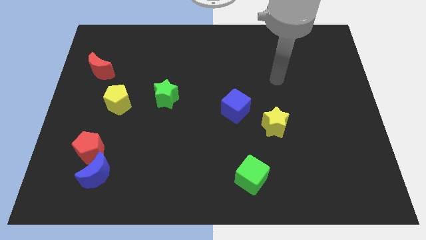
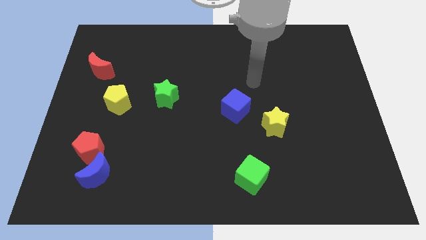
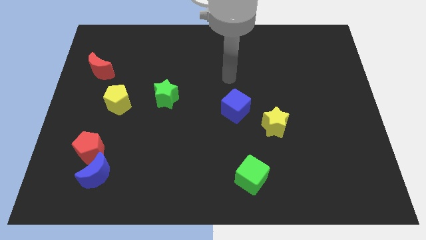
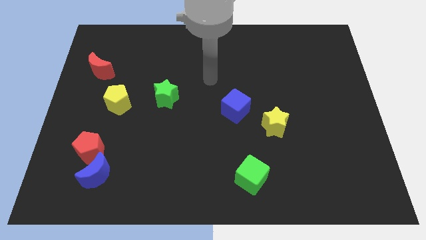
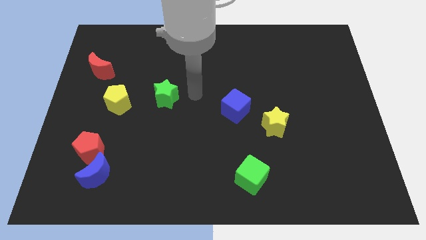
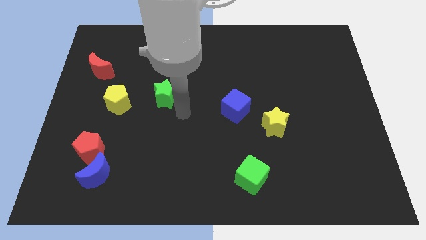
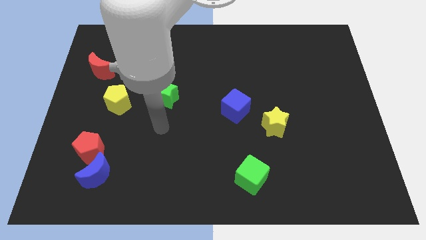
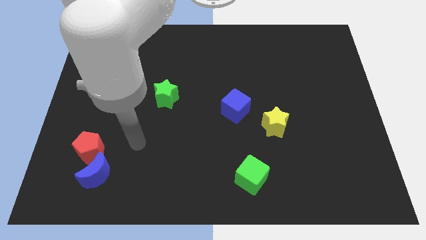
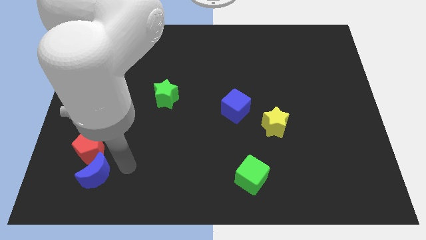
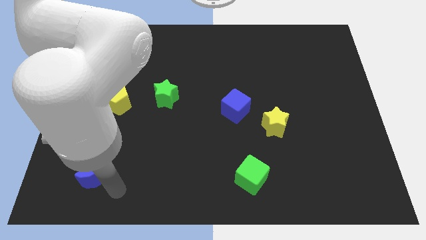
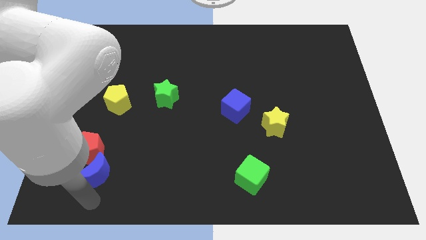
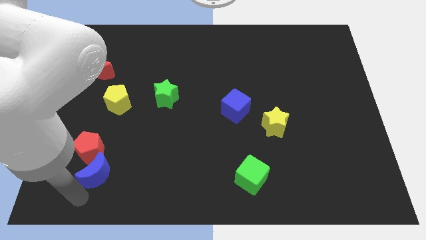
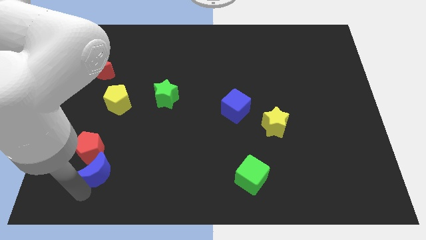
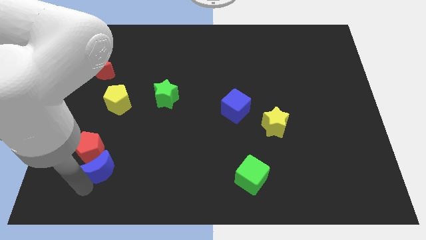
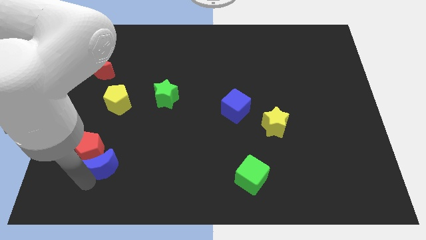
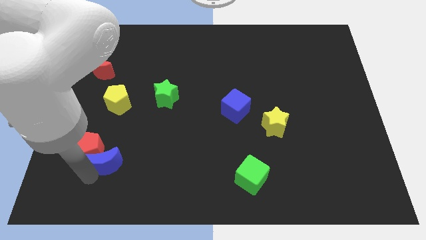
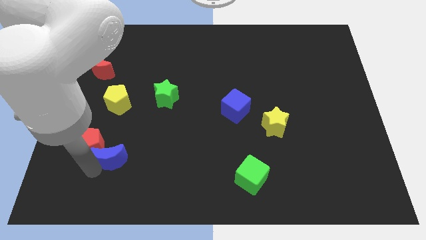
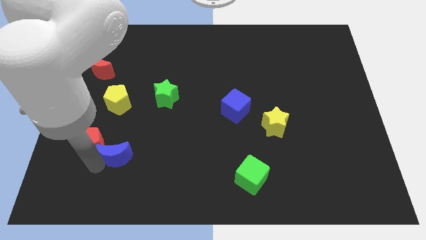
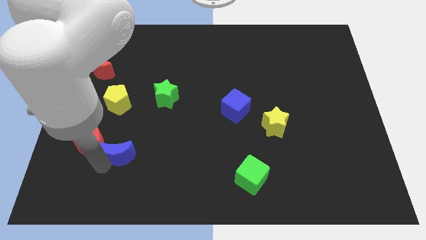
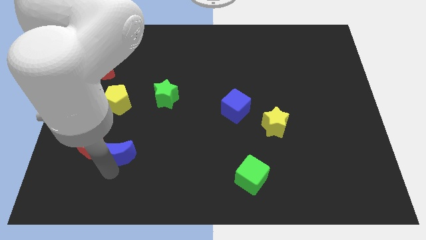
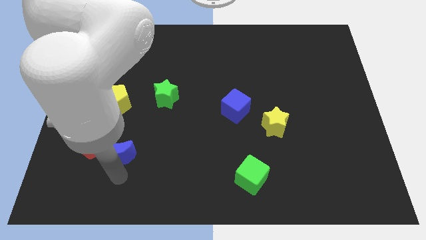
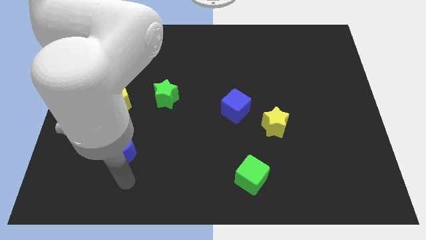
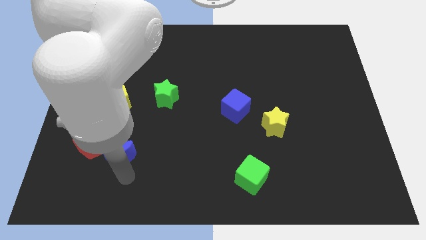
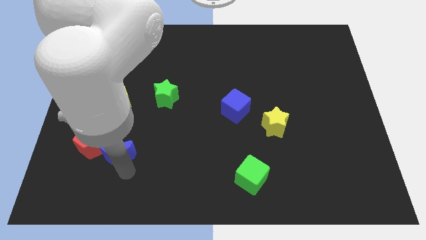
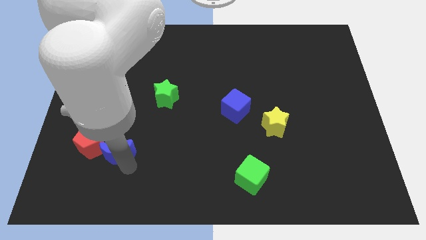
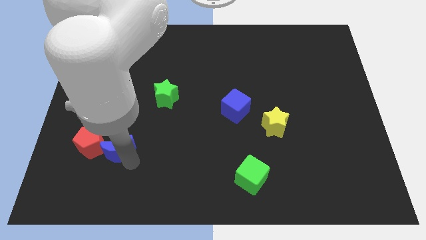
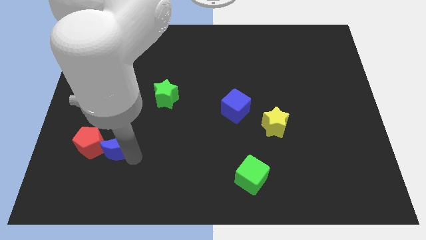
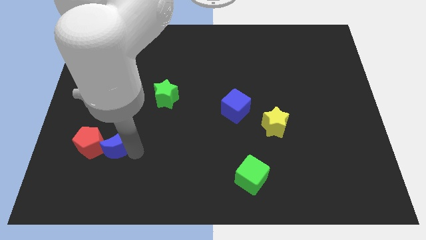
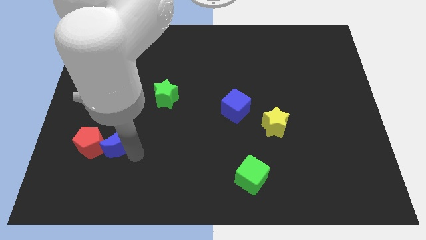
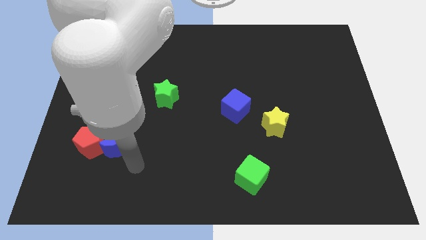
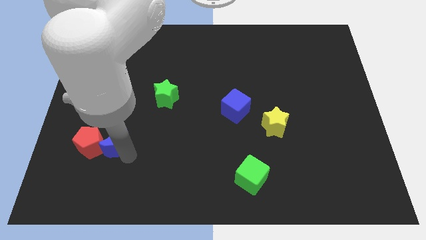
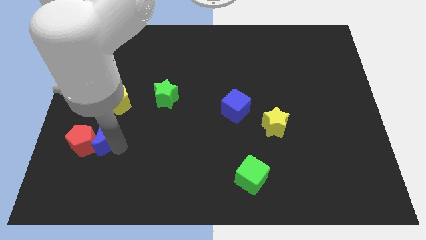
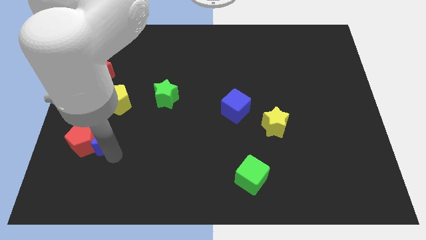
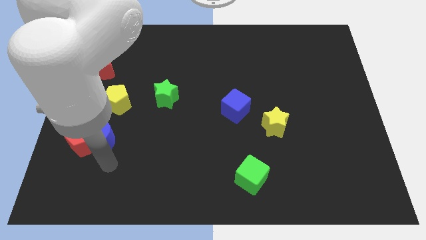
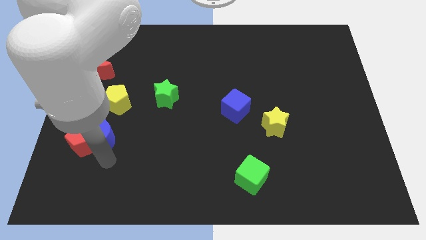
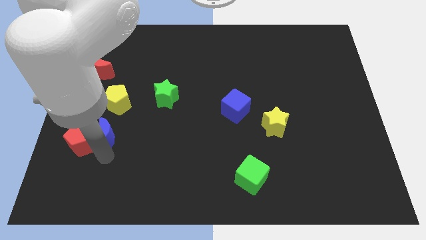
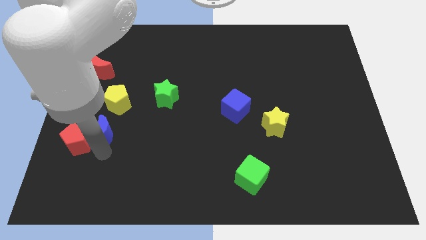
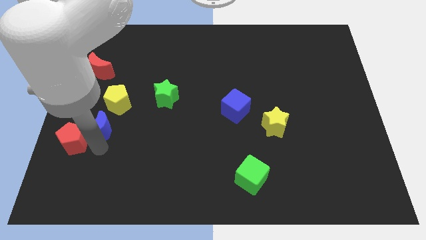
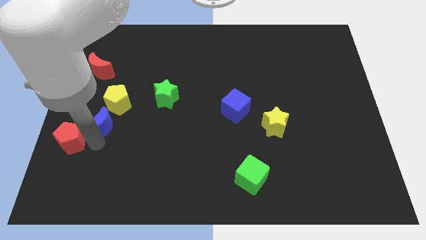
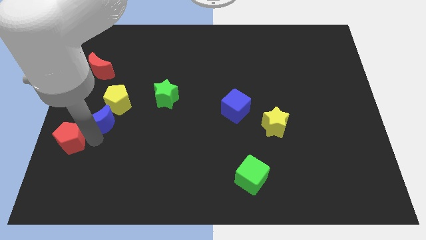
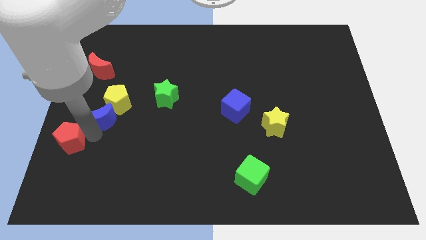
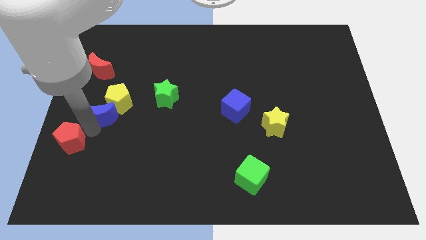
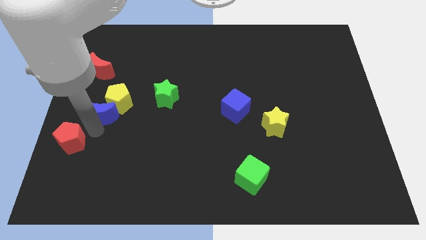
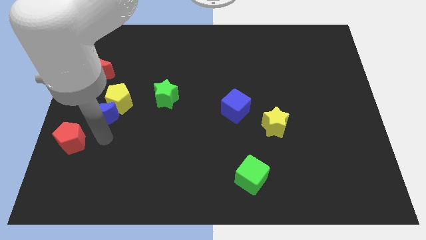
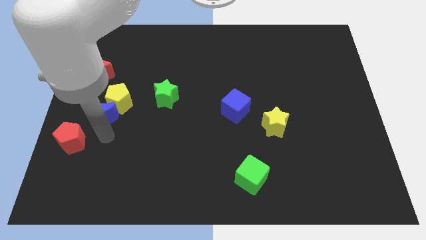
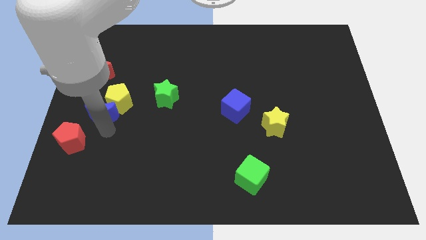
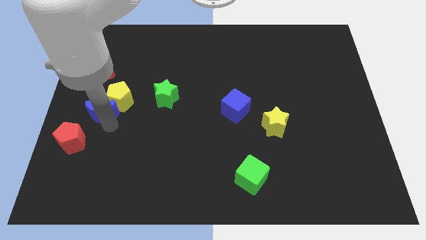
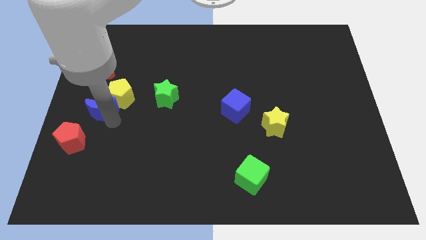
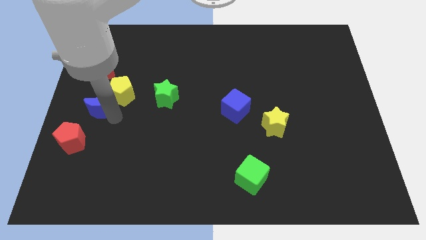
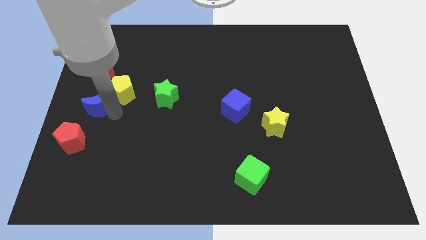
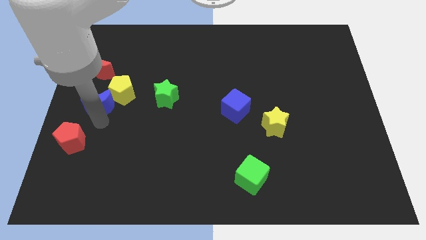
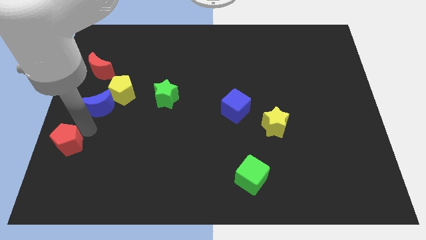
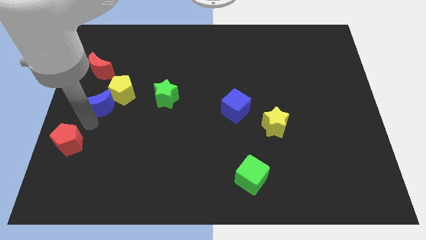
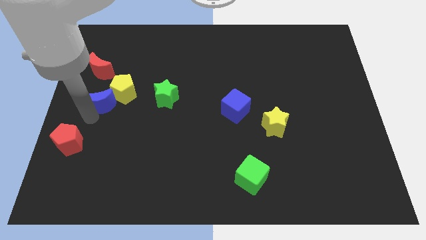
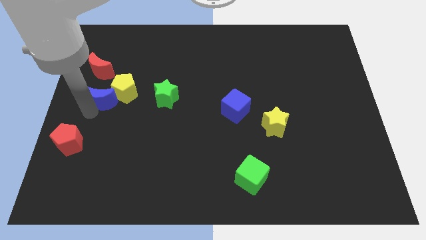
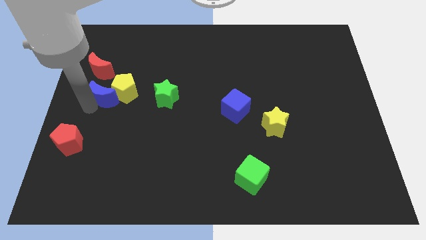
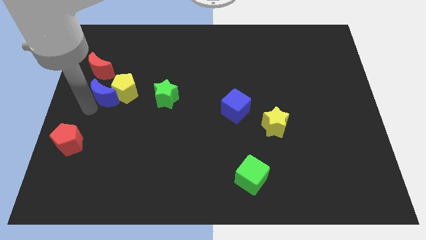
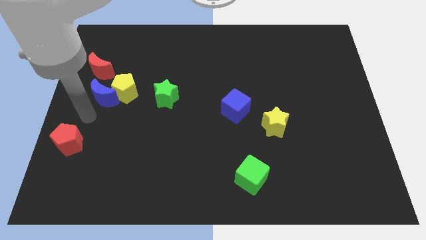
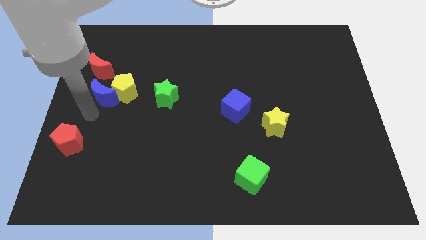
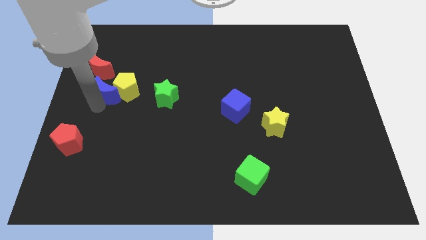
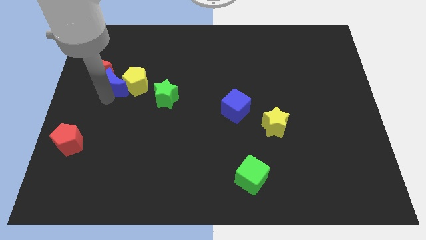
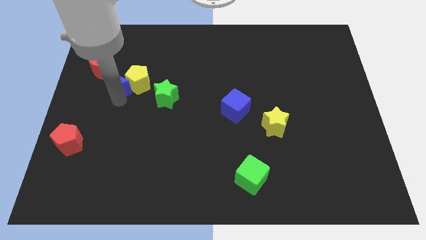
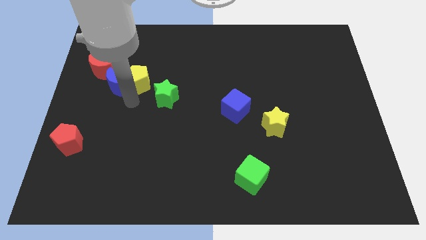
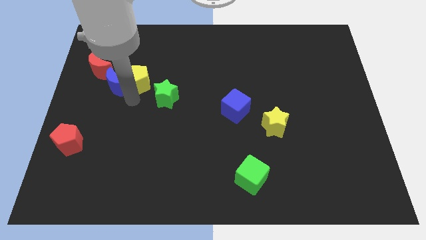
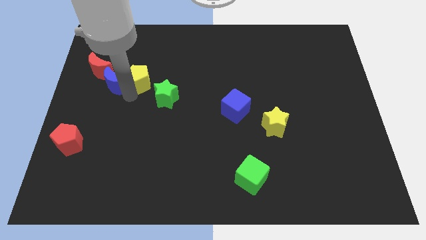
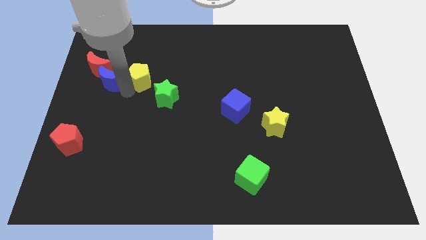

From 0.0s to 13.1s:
put the blue moon next to the red moon
